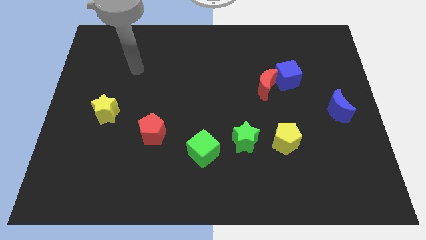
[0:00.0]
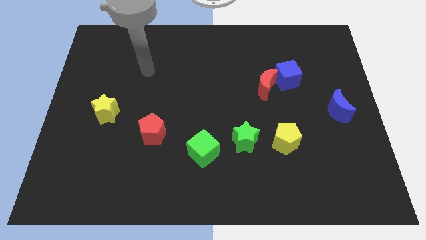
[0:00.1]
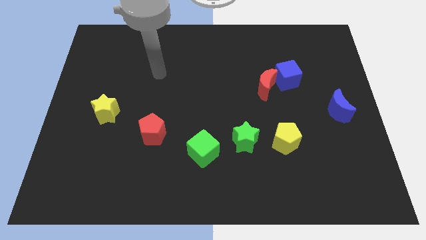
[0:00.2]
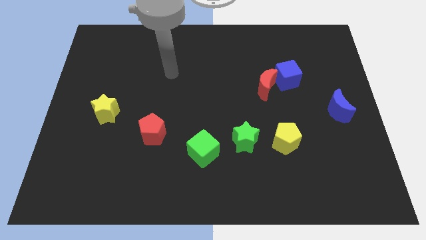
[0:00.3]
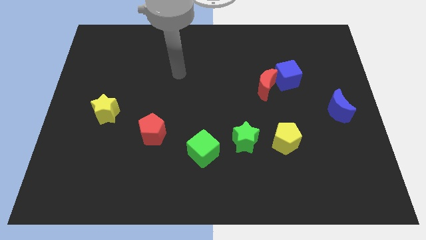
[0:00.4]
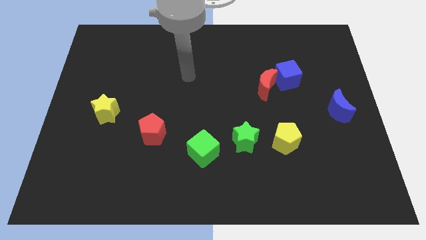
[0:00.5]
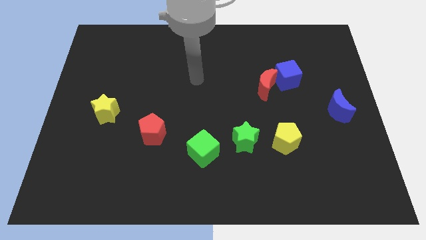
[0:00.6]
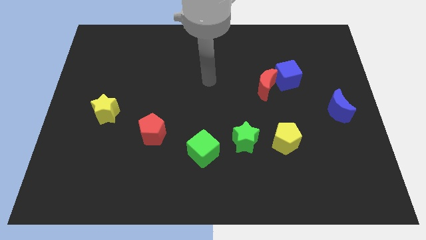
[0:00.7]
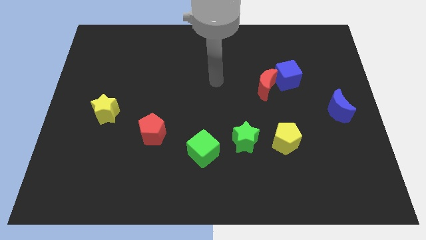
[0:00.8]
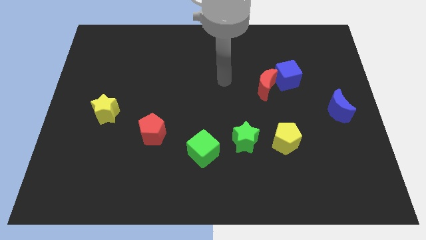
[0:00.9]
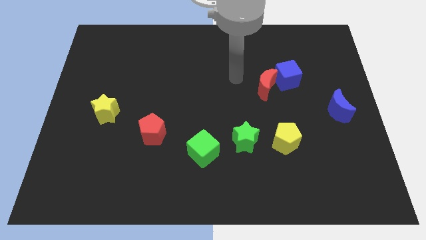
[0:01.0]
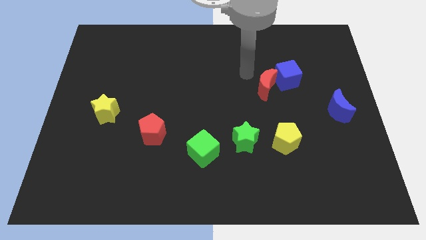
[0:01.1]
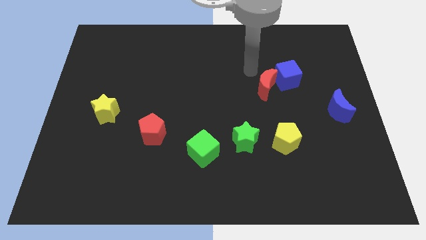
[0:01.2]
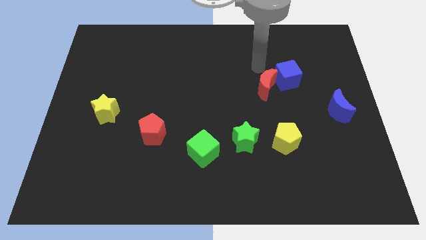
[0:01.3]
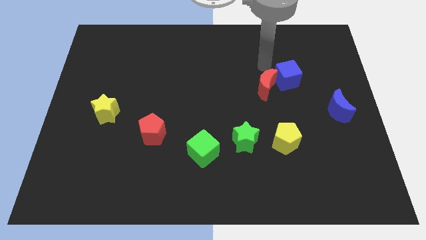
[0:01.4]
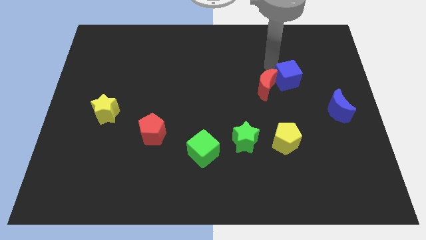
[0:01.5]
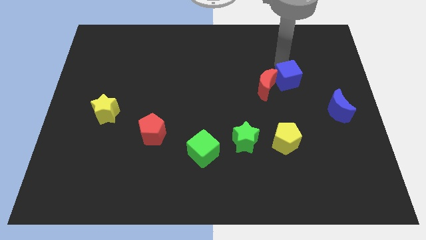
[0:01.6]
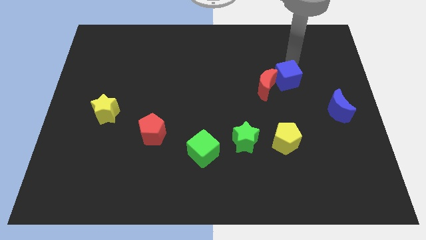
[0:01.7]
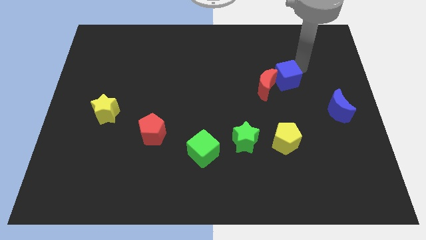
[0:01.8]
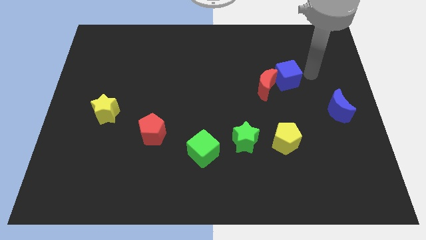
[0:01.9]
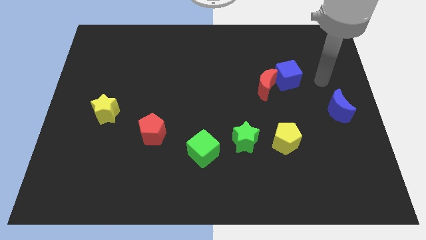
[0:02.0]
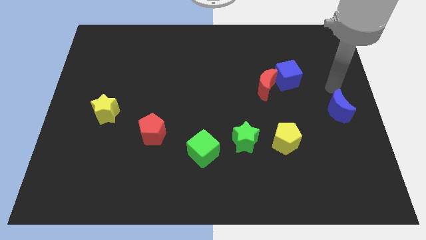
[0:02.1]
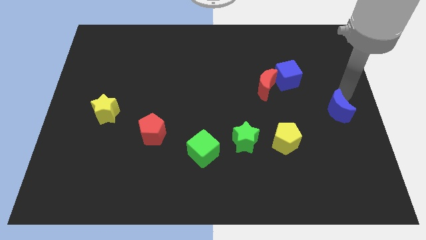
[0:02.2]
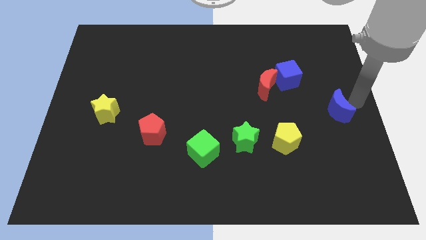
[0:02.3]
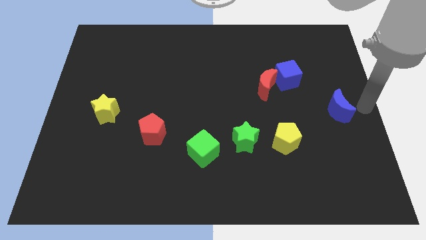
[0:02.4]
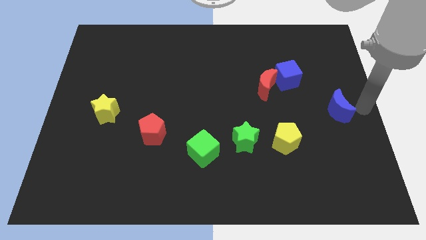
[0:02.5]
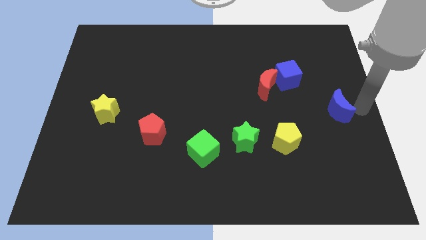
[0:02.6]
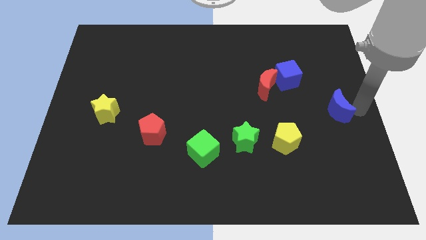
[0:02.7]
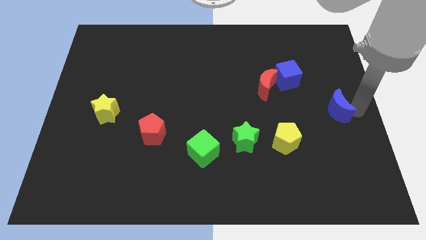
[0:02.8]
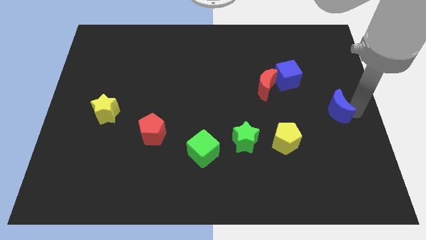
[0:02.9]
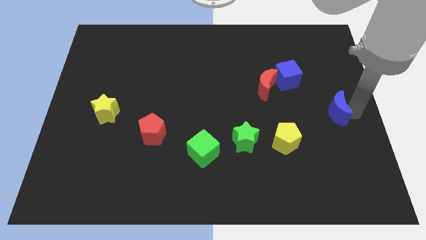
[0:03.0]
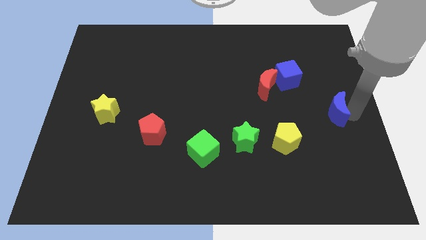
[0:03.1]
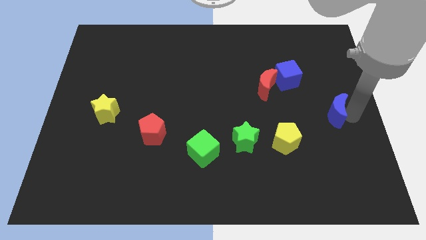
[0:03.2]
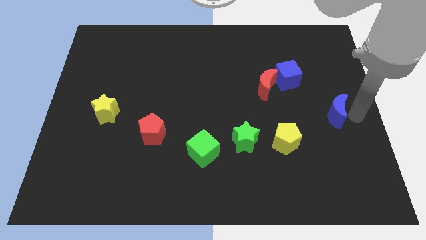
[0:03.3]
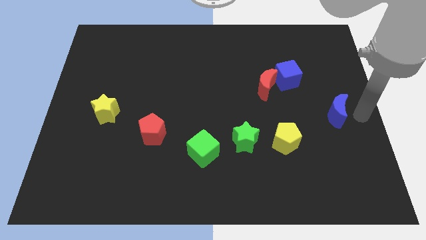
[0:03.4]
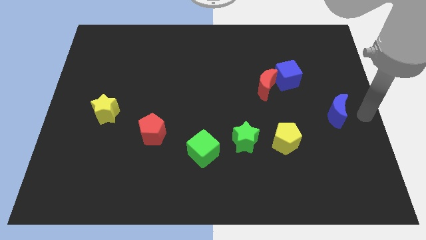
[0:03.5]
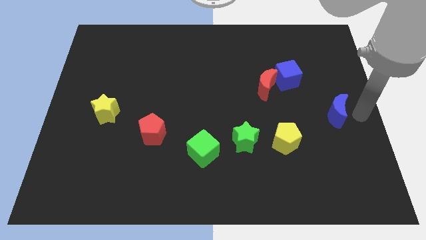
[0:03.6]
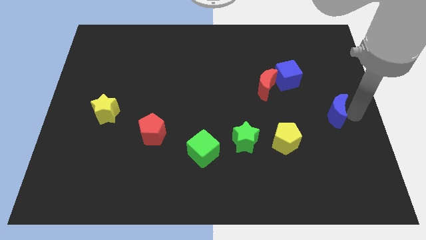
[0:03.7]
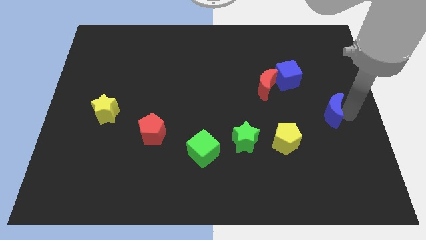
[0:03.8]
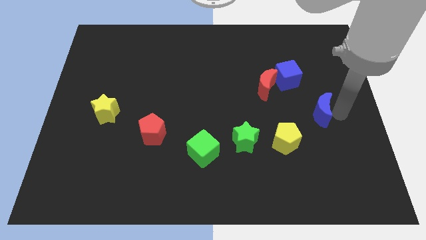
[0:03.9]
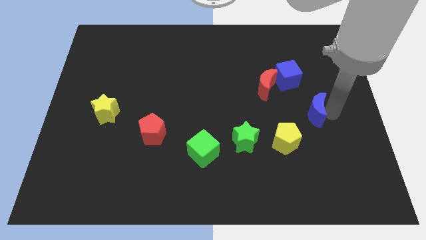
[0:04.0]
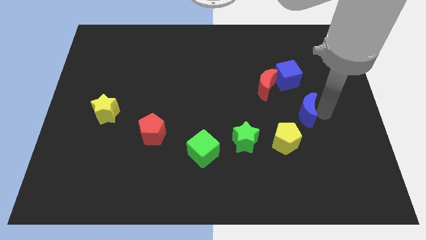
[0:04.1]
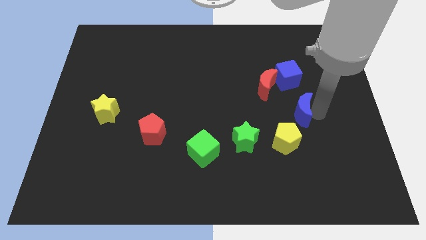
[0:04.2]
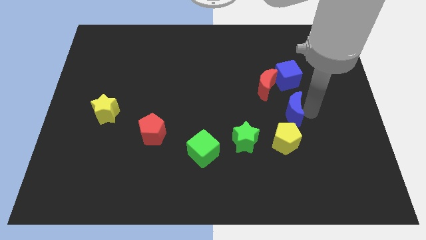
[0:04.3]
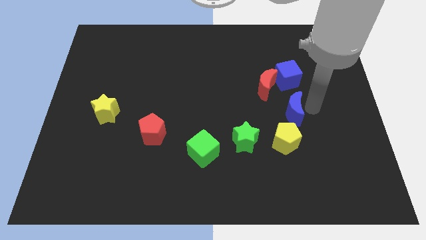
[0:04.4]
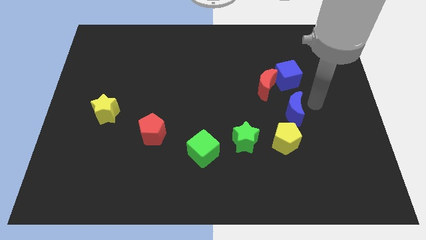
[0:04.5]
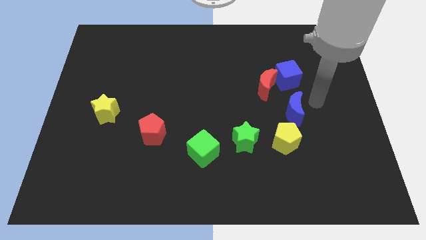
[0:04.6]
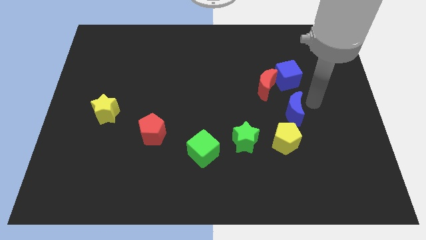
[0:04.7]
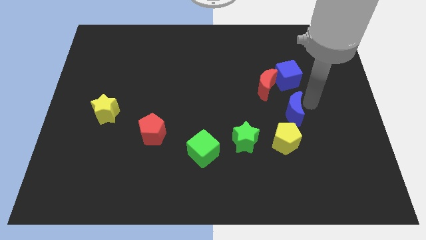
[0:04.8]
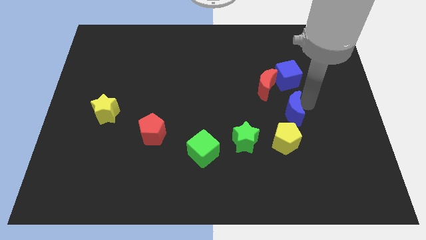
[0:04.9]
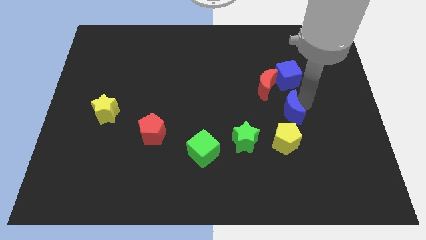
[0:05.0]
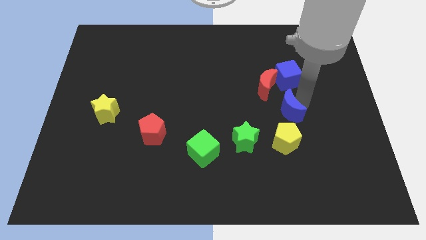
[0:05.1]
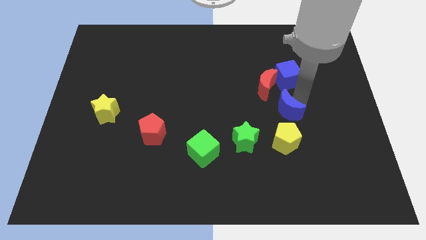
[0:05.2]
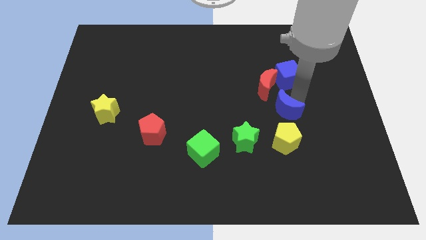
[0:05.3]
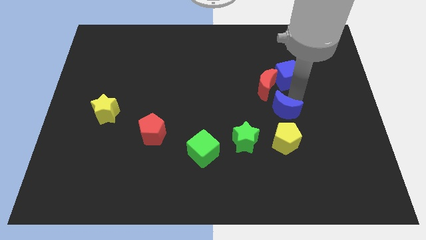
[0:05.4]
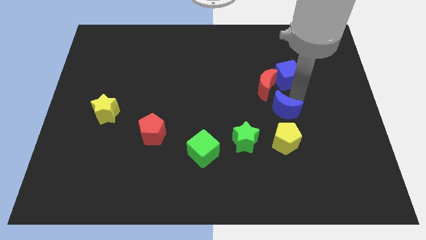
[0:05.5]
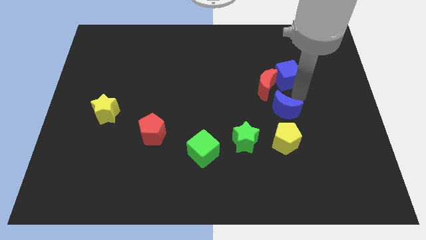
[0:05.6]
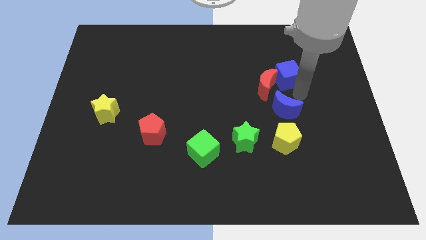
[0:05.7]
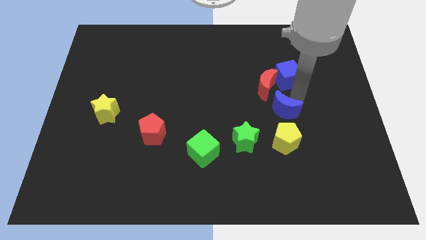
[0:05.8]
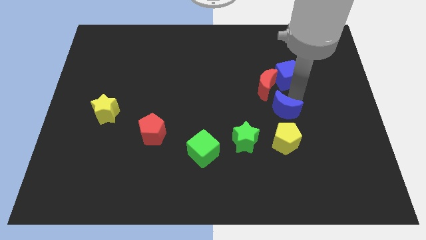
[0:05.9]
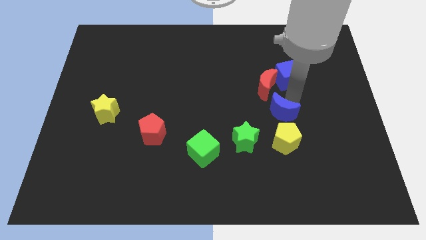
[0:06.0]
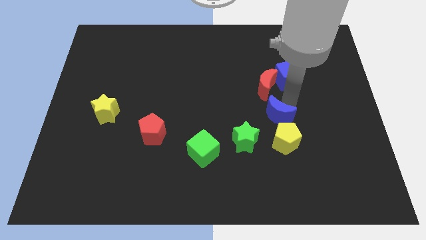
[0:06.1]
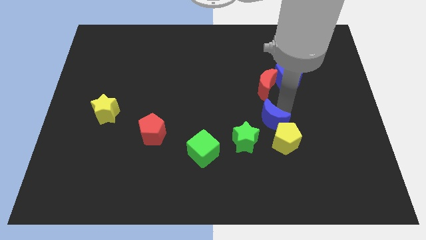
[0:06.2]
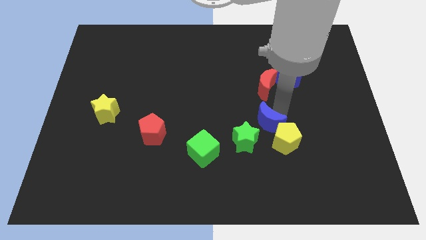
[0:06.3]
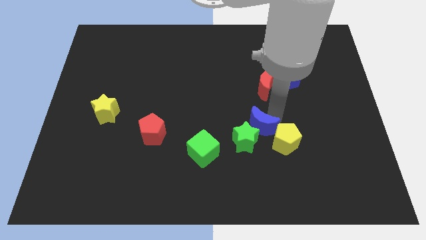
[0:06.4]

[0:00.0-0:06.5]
slide the blue moon next to the green star

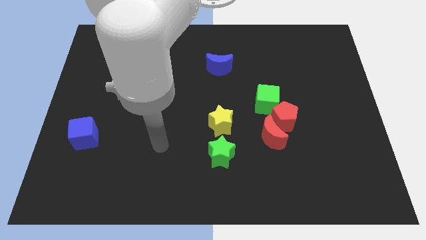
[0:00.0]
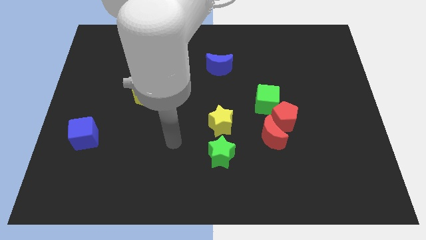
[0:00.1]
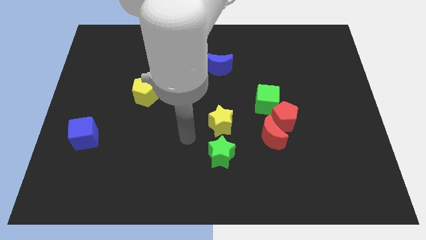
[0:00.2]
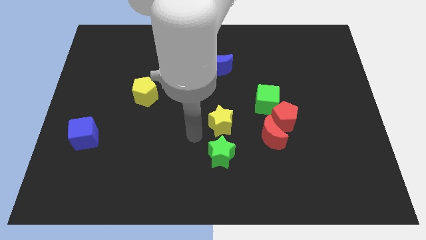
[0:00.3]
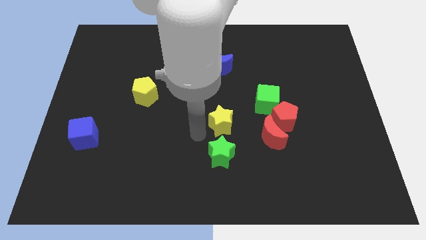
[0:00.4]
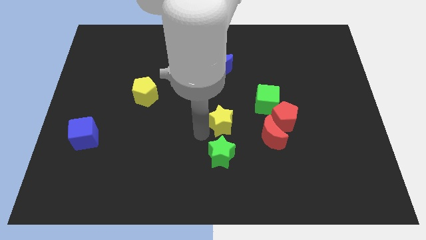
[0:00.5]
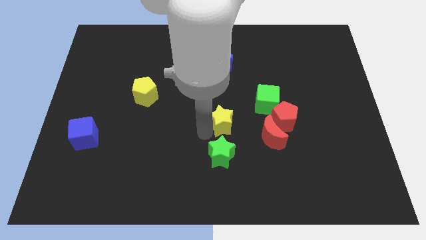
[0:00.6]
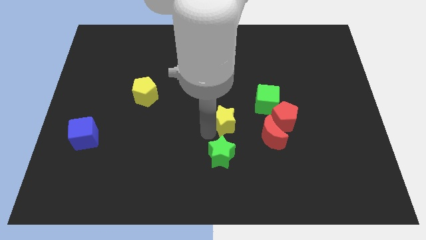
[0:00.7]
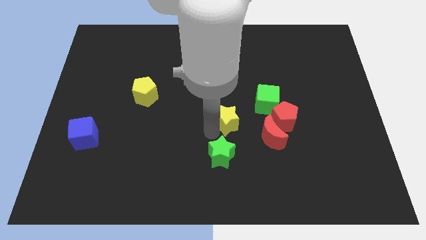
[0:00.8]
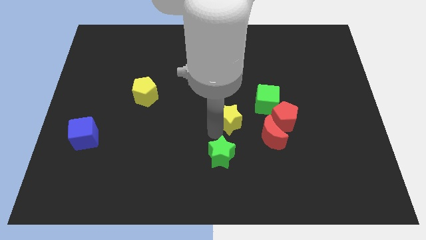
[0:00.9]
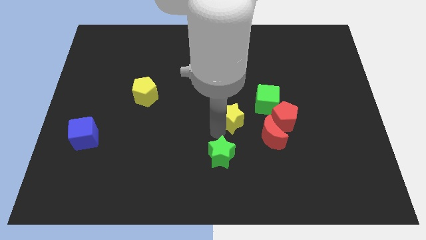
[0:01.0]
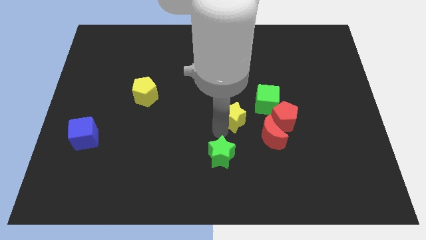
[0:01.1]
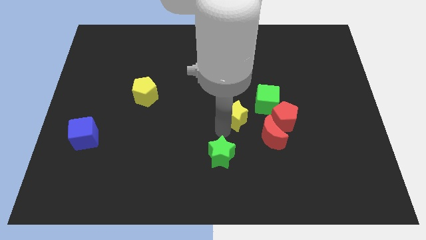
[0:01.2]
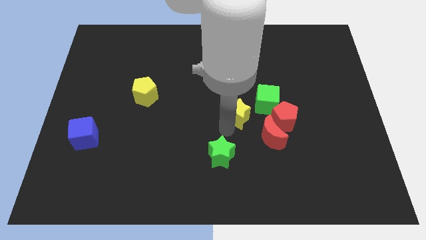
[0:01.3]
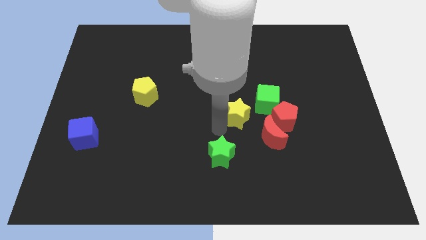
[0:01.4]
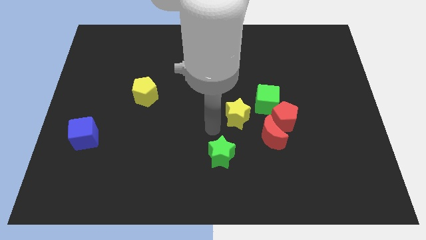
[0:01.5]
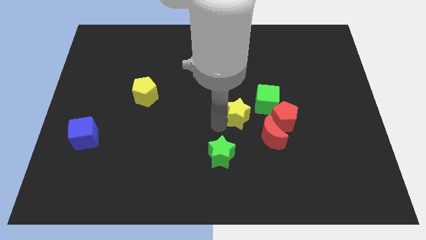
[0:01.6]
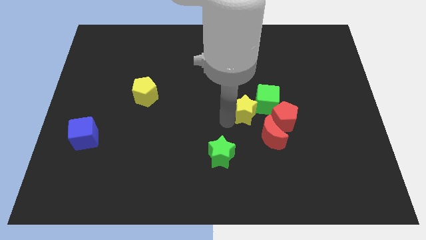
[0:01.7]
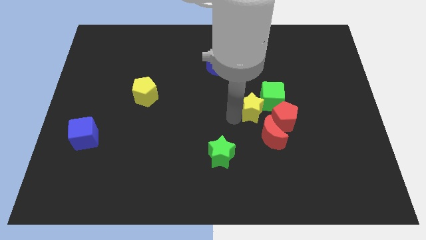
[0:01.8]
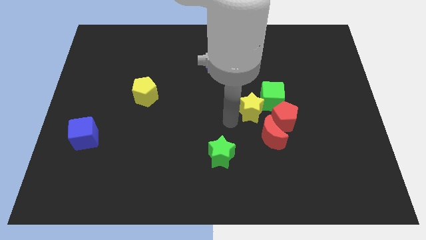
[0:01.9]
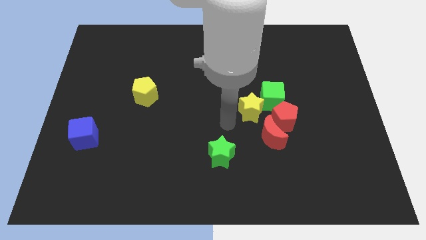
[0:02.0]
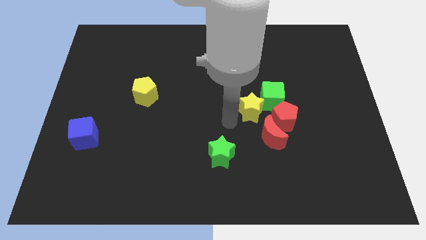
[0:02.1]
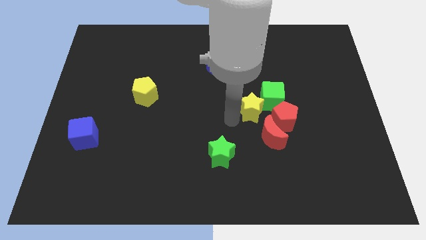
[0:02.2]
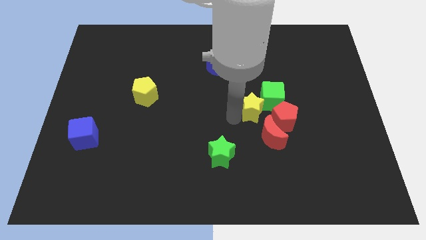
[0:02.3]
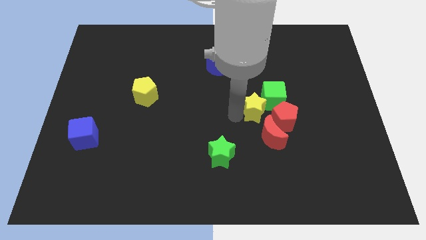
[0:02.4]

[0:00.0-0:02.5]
slide the yellow star next to the green cube
